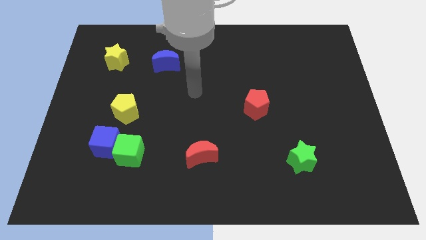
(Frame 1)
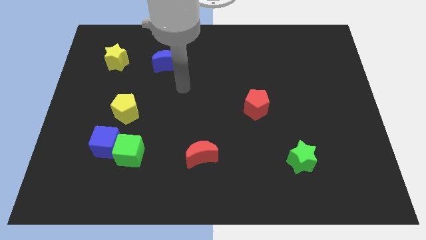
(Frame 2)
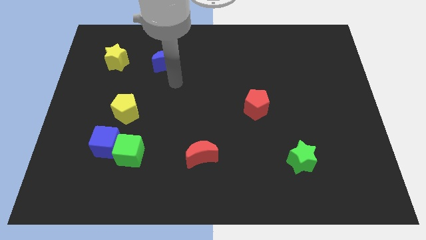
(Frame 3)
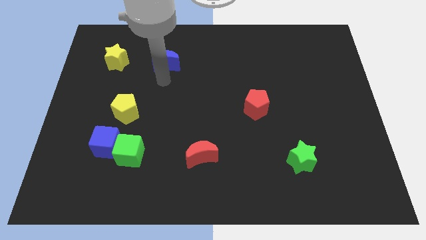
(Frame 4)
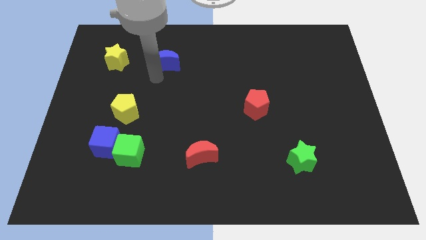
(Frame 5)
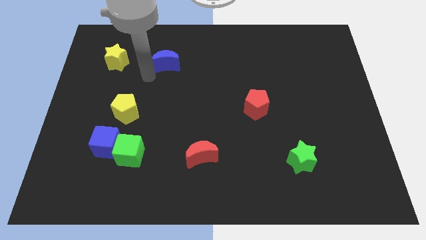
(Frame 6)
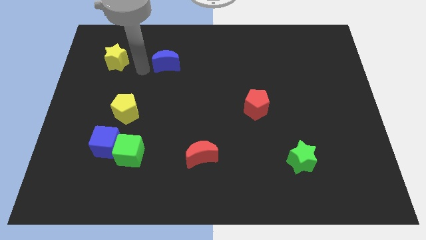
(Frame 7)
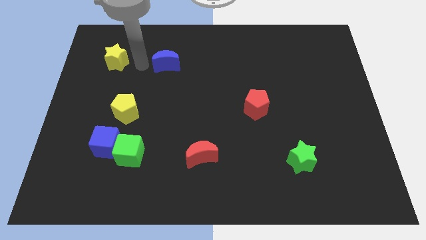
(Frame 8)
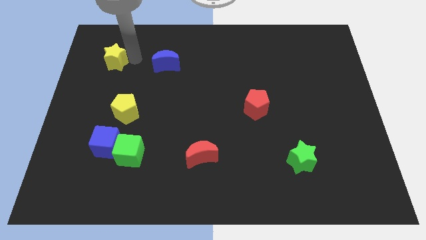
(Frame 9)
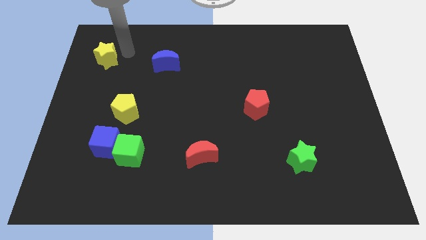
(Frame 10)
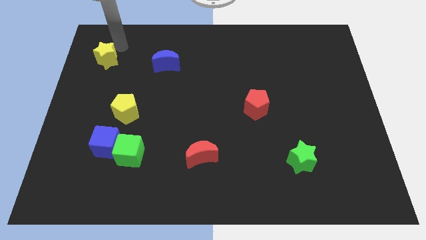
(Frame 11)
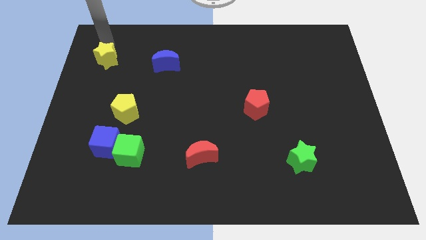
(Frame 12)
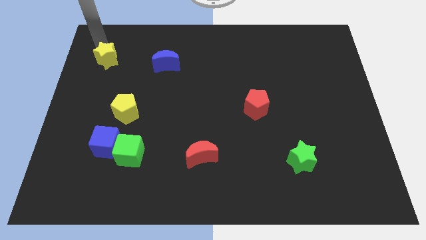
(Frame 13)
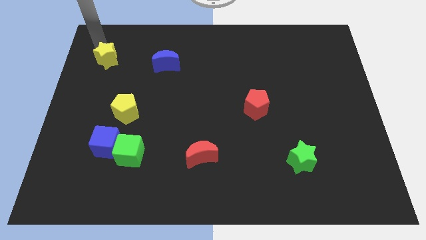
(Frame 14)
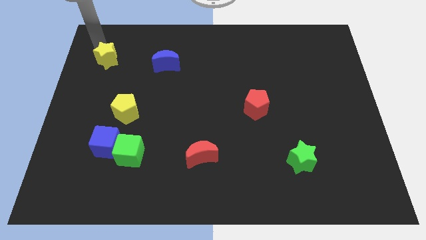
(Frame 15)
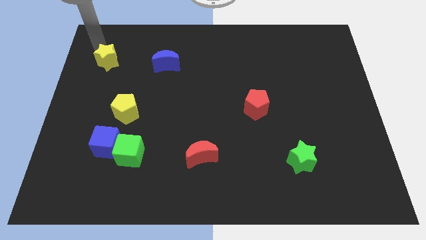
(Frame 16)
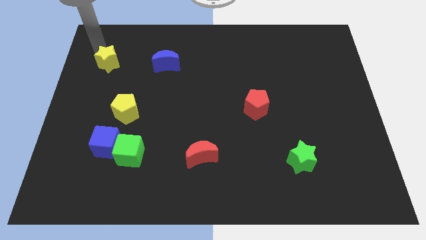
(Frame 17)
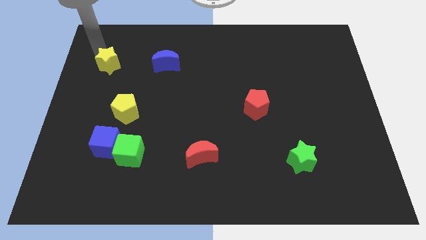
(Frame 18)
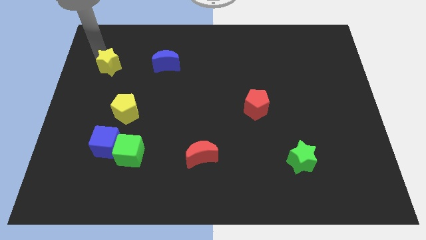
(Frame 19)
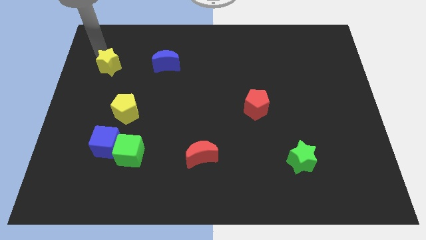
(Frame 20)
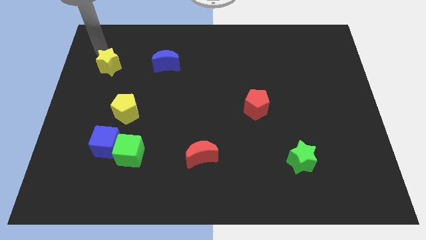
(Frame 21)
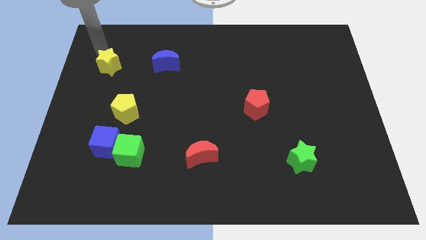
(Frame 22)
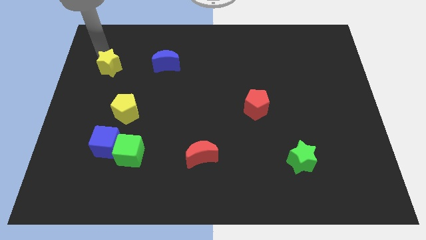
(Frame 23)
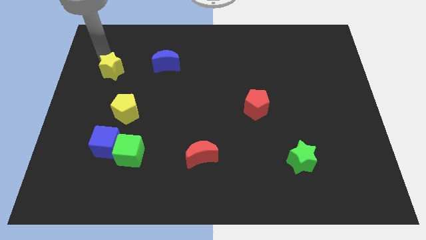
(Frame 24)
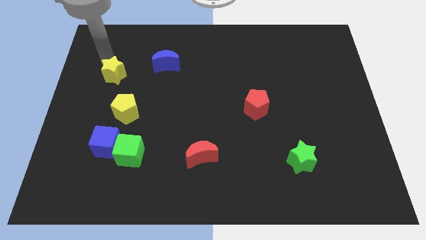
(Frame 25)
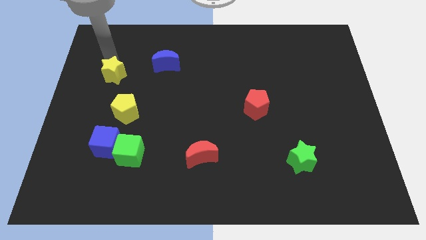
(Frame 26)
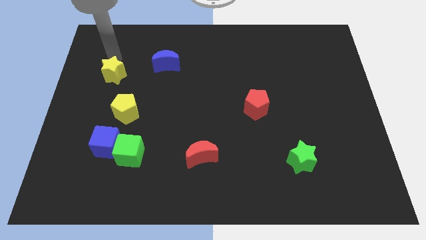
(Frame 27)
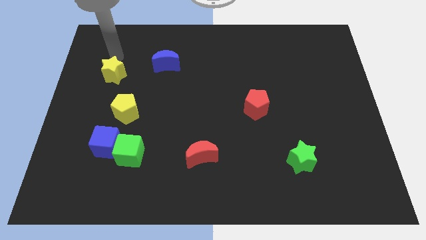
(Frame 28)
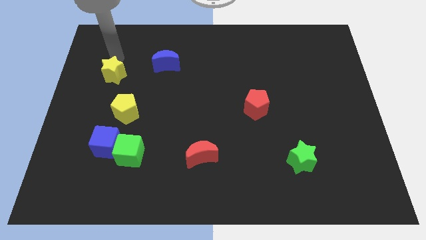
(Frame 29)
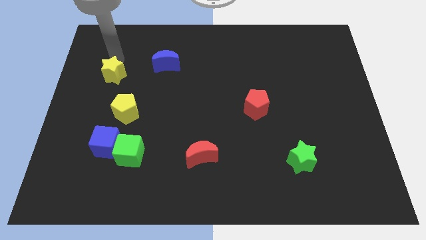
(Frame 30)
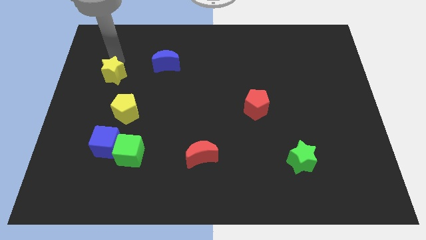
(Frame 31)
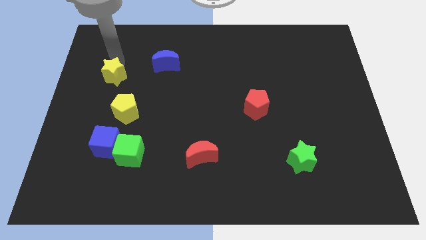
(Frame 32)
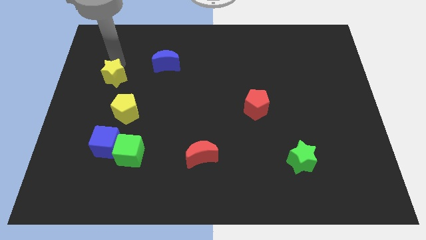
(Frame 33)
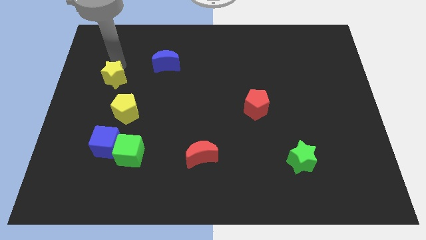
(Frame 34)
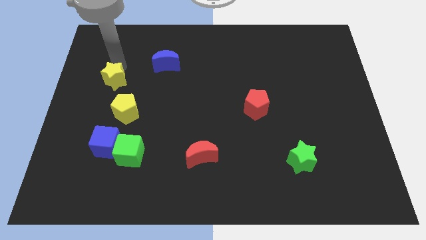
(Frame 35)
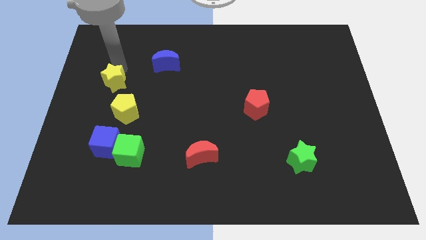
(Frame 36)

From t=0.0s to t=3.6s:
slightly slide the yellow star down

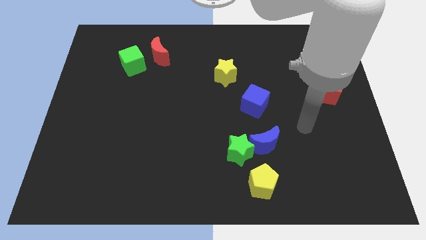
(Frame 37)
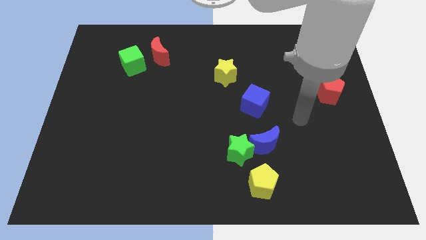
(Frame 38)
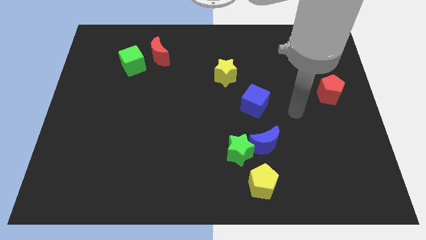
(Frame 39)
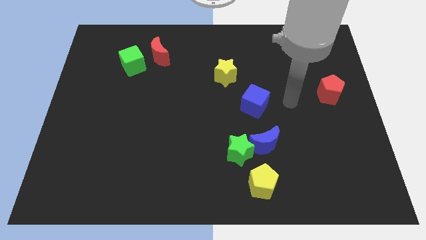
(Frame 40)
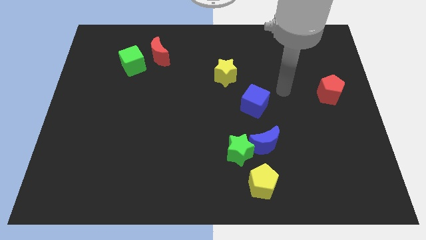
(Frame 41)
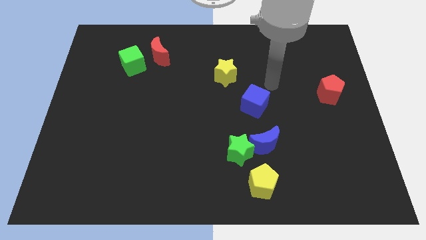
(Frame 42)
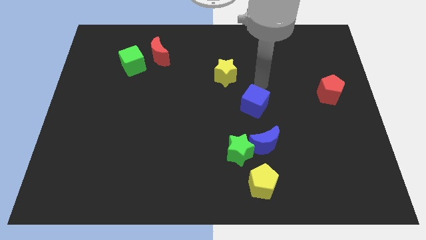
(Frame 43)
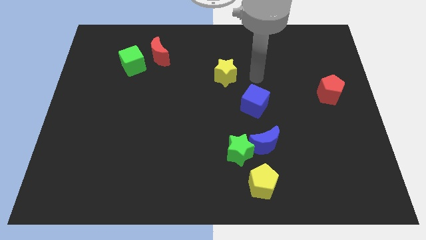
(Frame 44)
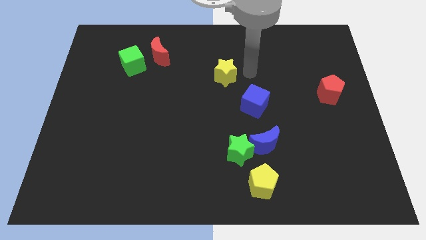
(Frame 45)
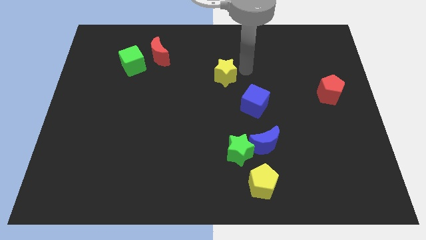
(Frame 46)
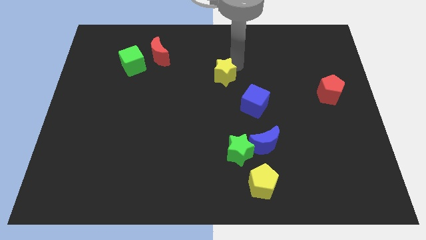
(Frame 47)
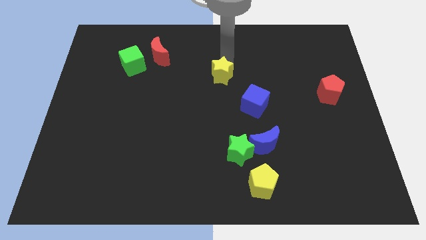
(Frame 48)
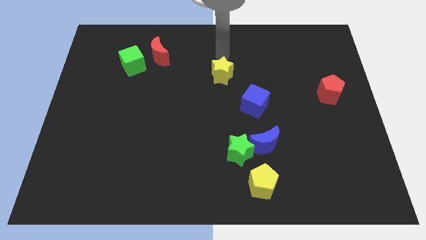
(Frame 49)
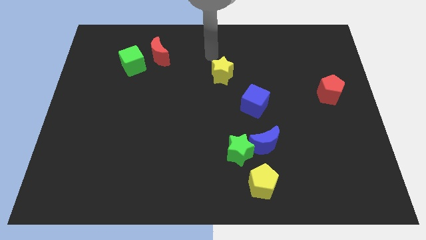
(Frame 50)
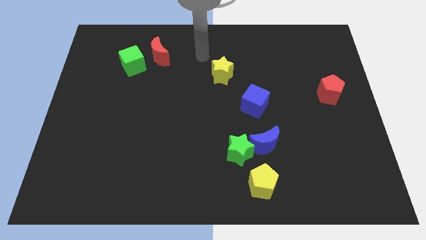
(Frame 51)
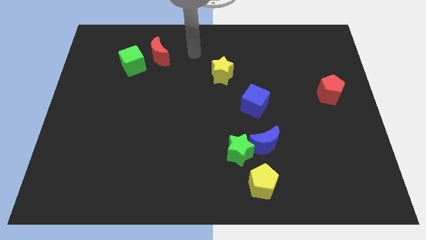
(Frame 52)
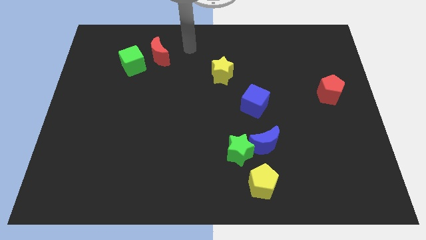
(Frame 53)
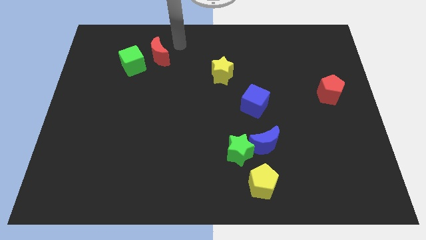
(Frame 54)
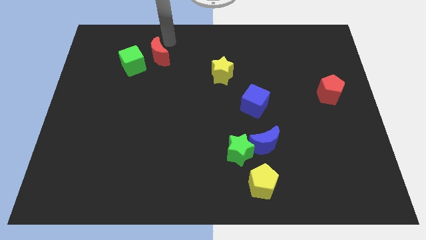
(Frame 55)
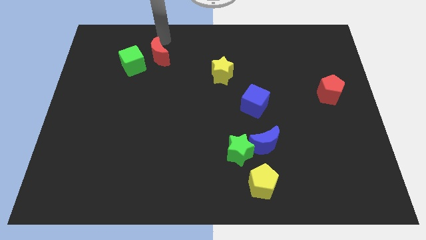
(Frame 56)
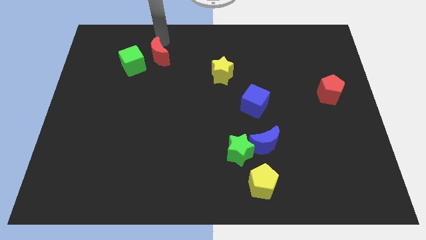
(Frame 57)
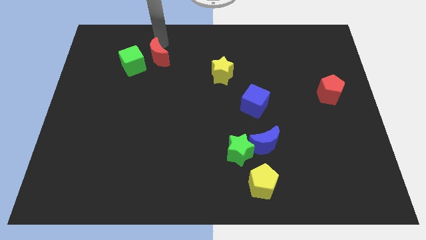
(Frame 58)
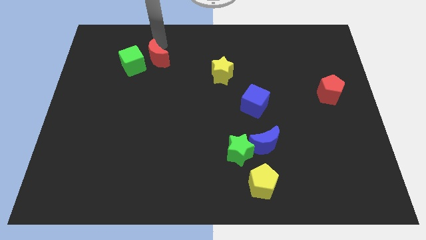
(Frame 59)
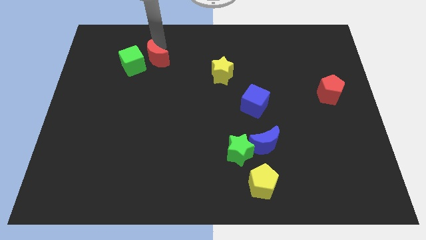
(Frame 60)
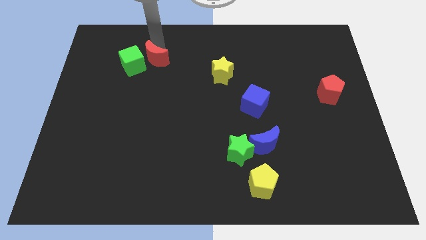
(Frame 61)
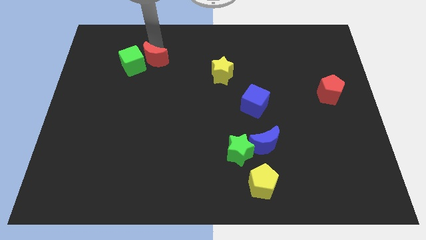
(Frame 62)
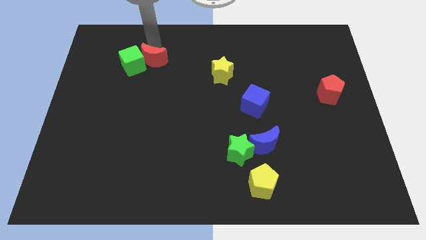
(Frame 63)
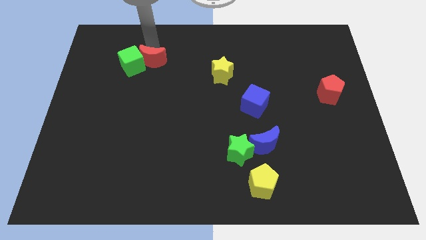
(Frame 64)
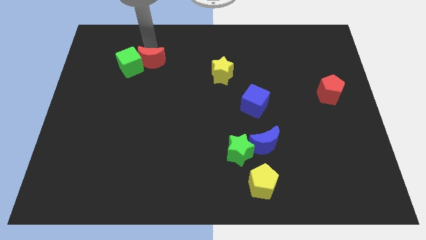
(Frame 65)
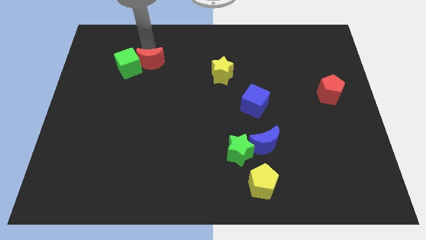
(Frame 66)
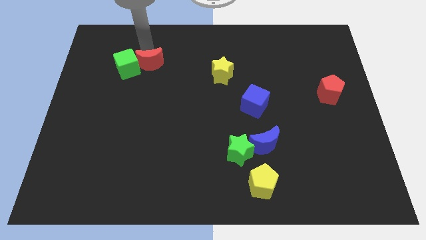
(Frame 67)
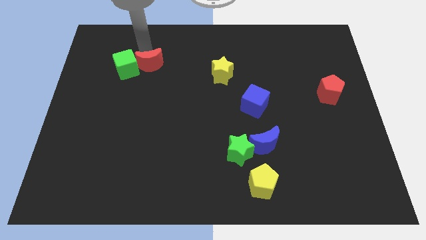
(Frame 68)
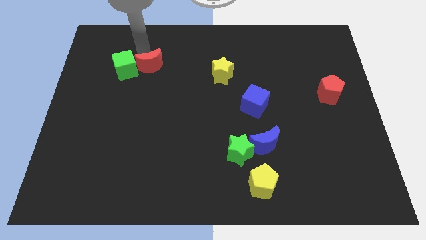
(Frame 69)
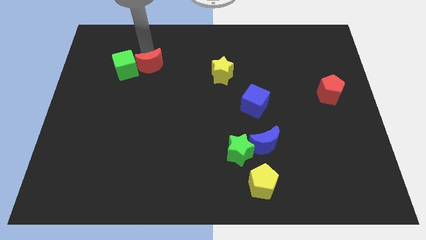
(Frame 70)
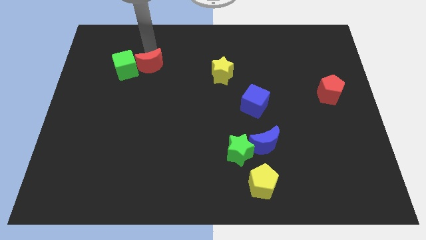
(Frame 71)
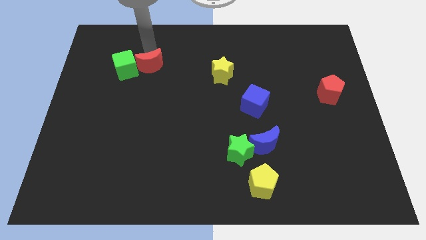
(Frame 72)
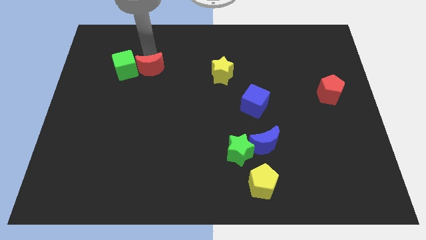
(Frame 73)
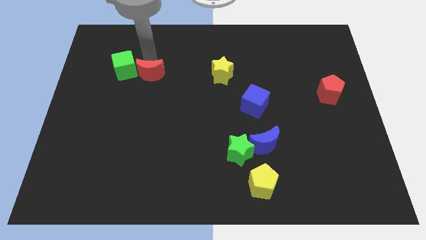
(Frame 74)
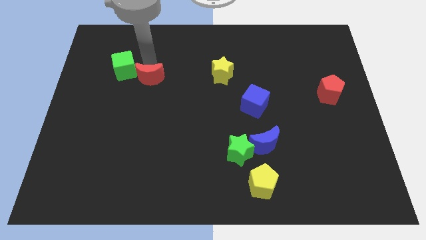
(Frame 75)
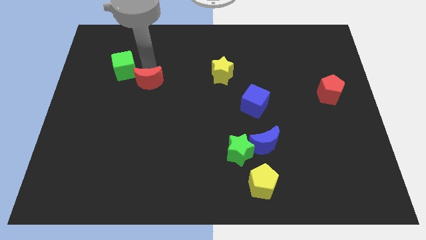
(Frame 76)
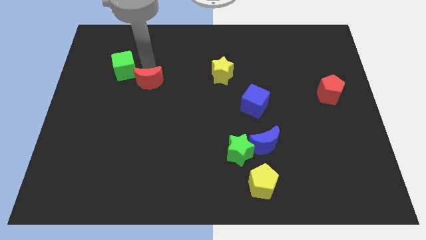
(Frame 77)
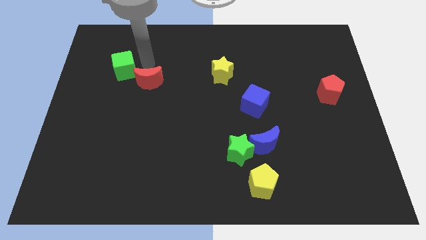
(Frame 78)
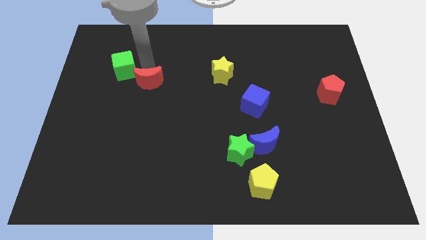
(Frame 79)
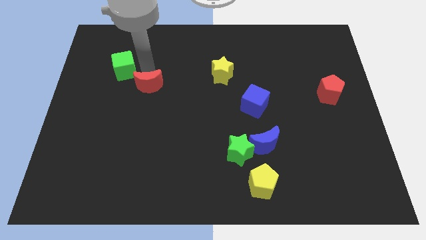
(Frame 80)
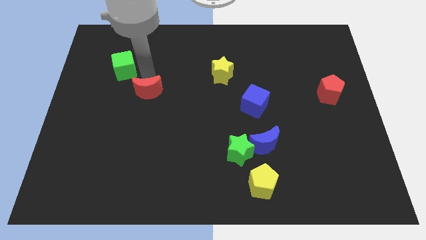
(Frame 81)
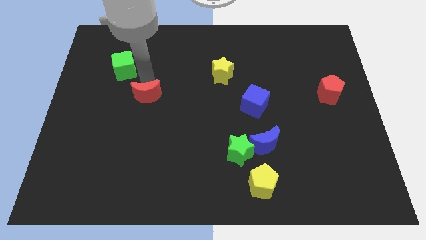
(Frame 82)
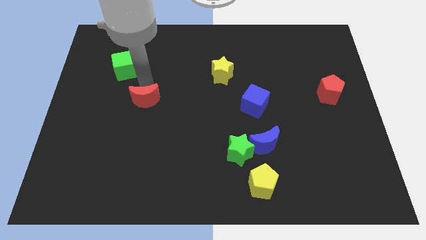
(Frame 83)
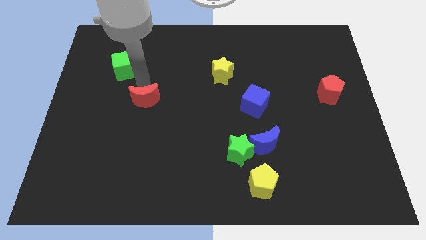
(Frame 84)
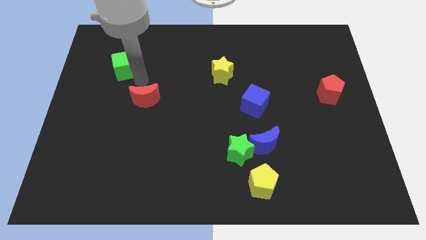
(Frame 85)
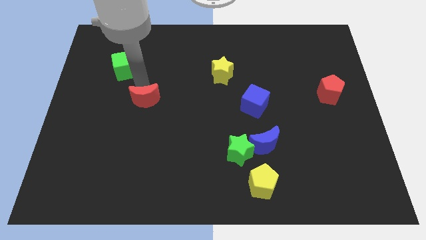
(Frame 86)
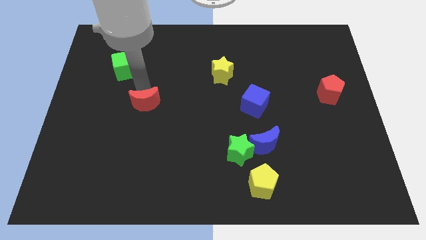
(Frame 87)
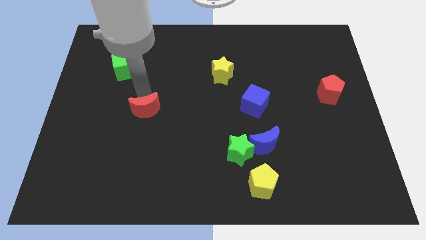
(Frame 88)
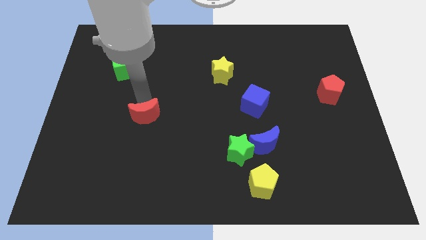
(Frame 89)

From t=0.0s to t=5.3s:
move the red moon down
